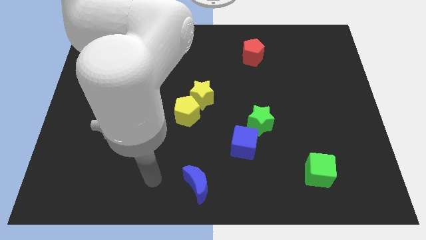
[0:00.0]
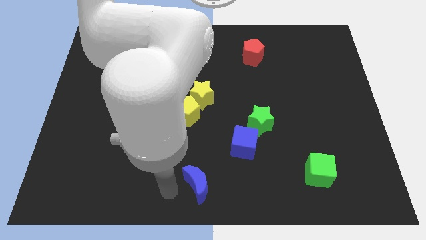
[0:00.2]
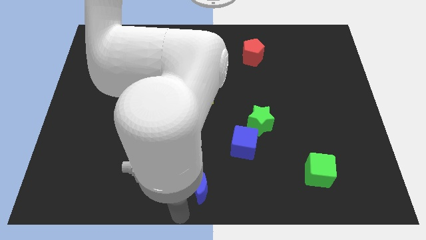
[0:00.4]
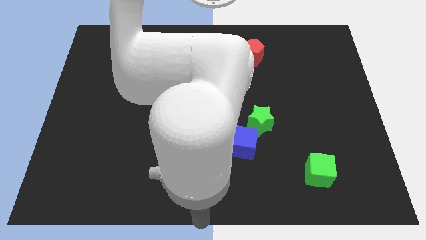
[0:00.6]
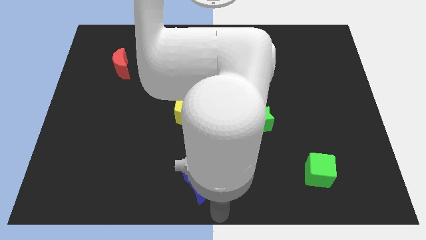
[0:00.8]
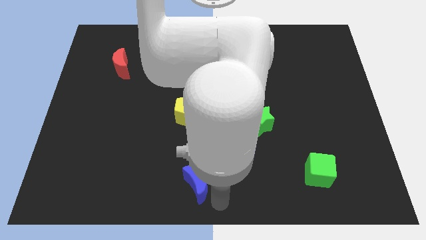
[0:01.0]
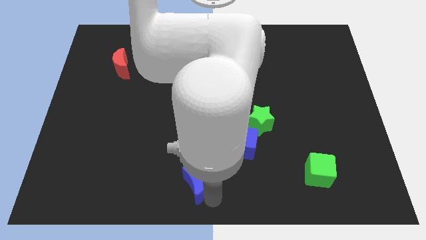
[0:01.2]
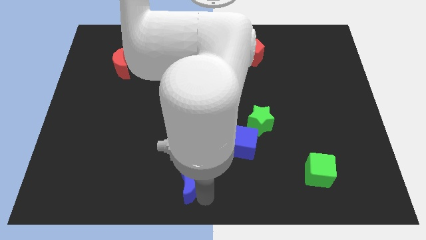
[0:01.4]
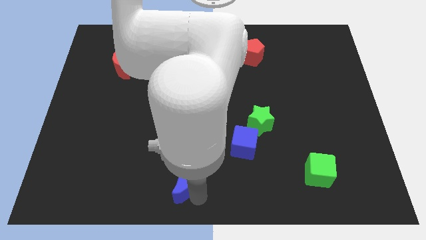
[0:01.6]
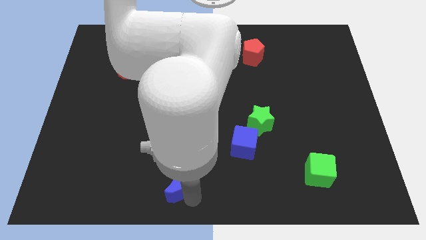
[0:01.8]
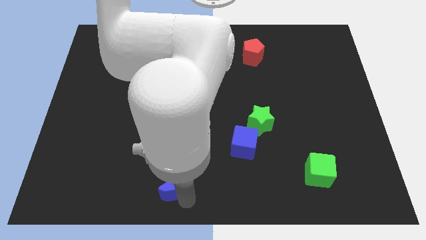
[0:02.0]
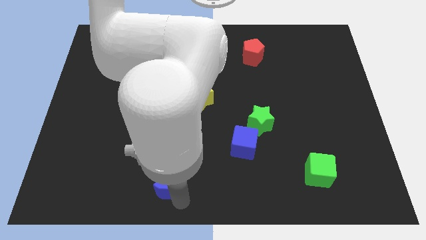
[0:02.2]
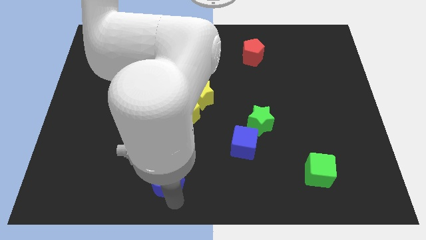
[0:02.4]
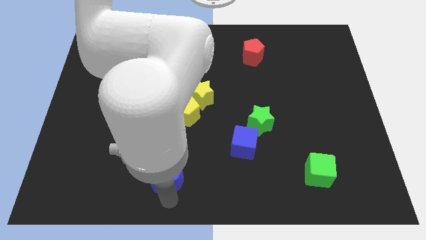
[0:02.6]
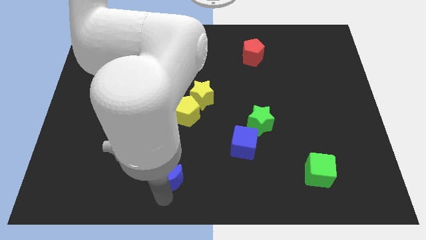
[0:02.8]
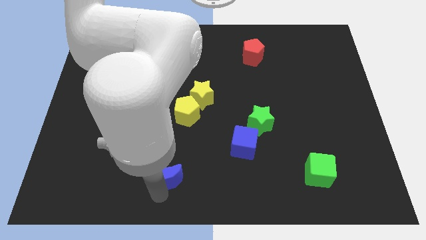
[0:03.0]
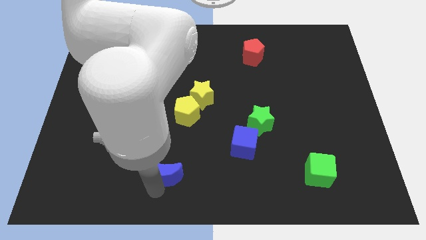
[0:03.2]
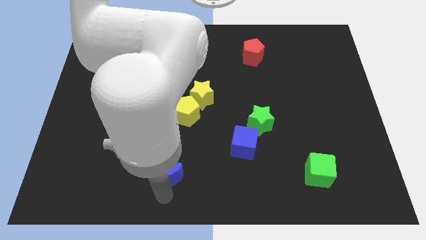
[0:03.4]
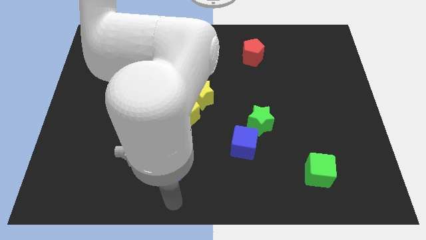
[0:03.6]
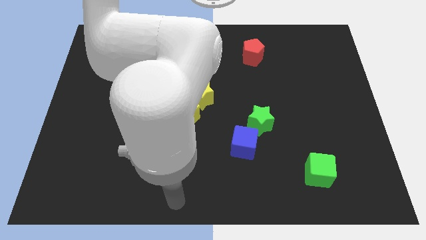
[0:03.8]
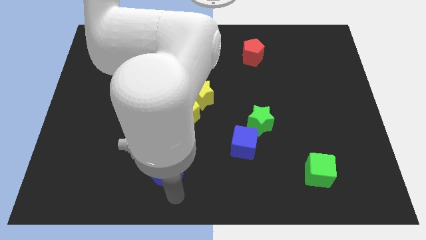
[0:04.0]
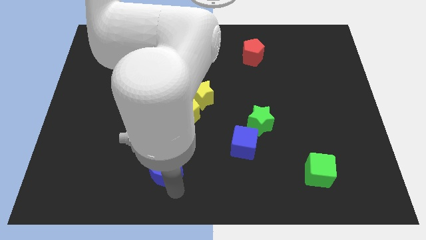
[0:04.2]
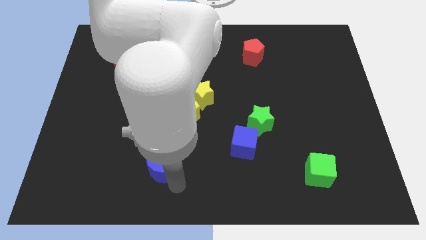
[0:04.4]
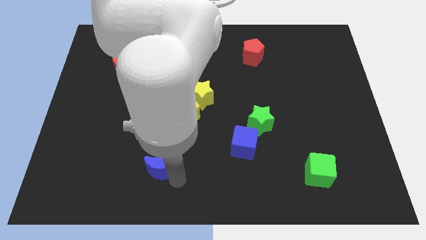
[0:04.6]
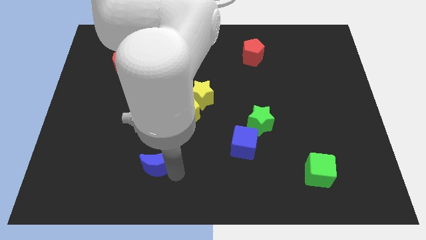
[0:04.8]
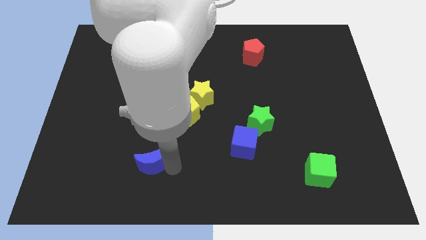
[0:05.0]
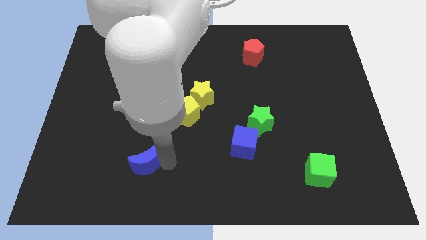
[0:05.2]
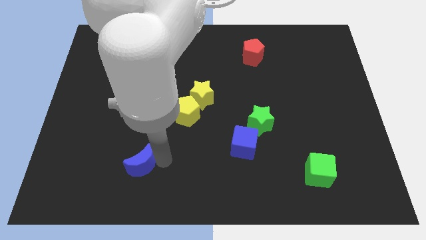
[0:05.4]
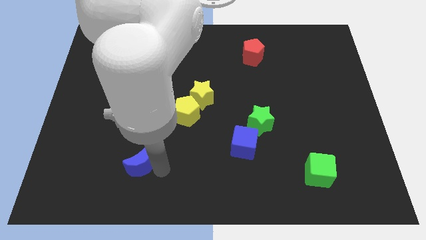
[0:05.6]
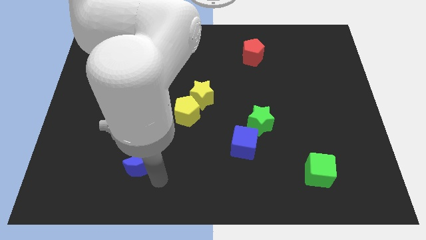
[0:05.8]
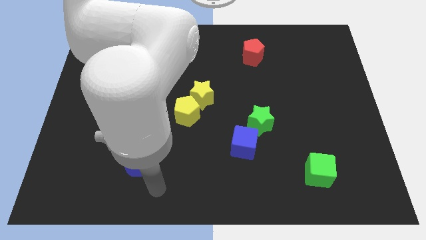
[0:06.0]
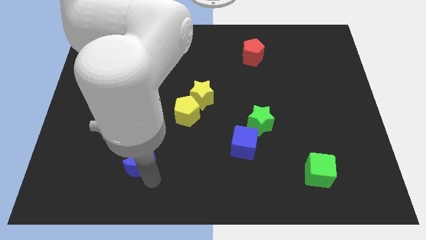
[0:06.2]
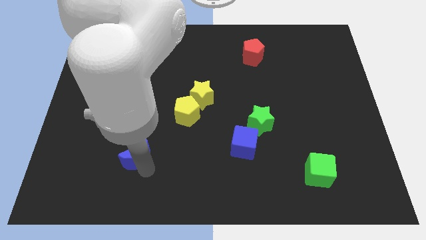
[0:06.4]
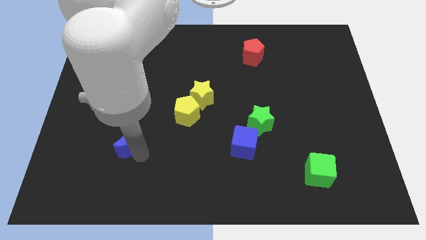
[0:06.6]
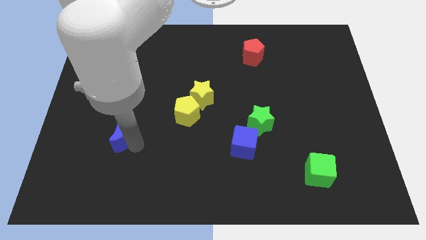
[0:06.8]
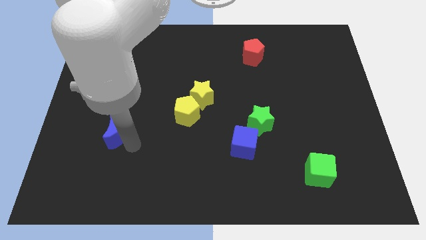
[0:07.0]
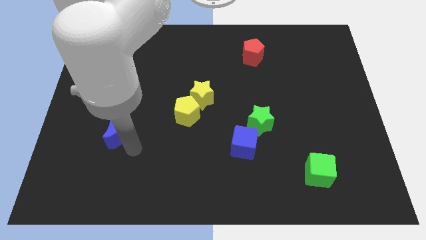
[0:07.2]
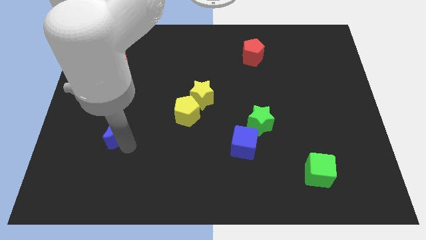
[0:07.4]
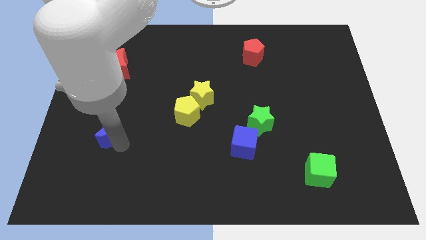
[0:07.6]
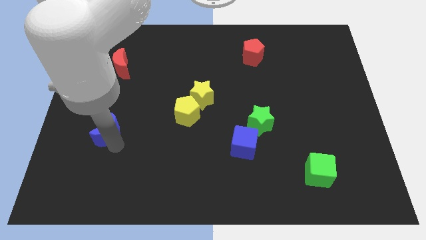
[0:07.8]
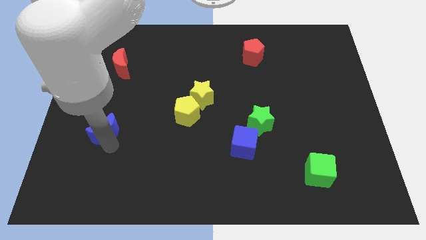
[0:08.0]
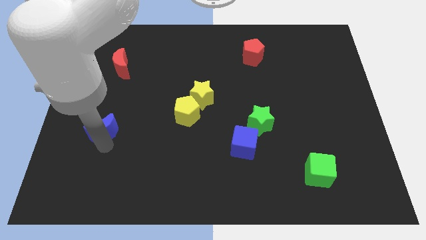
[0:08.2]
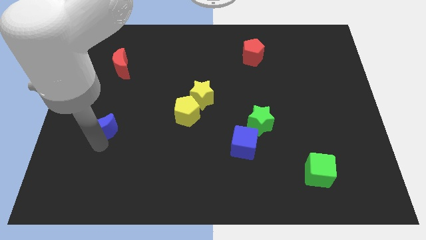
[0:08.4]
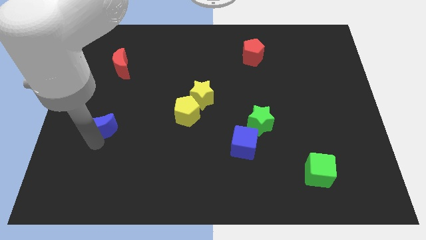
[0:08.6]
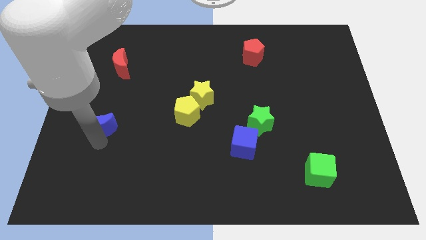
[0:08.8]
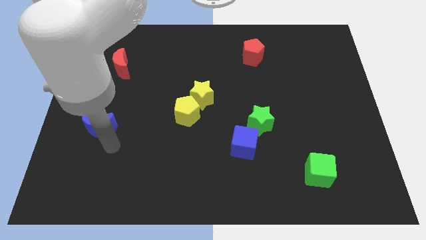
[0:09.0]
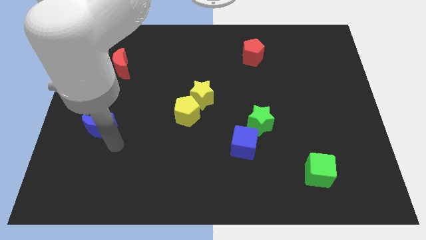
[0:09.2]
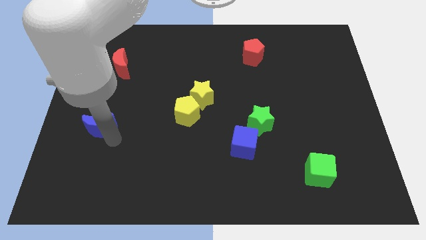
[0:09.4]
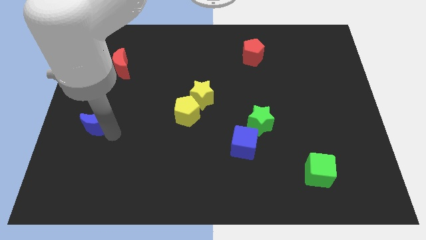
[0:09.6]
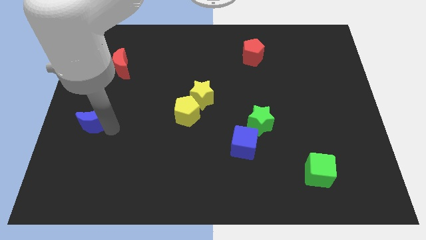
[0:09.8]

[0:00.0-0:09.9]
push the blue moon to the left side
